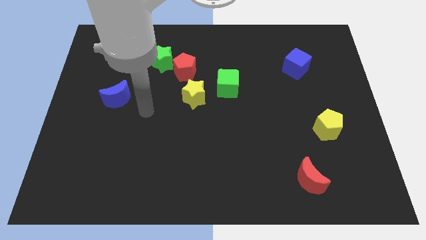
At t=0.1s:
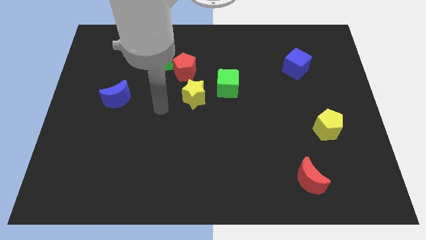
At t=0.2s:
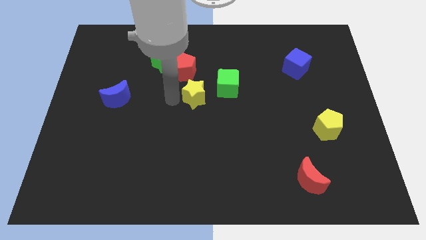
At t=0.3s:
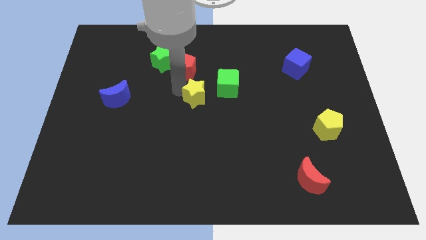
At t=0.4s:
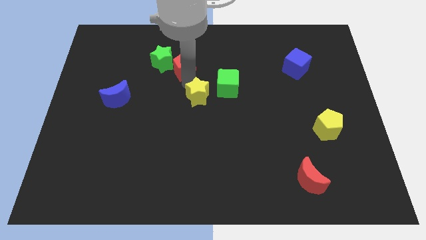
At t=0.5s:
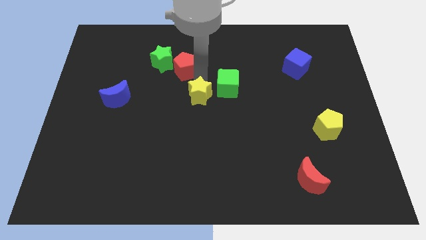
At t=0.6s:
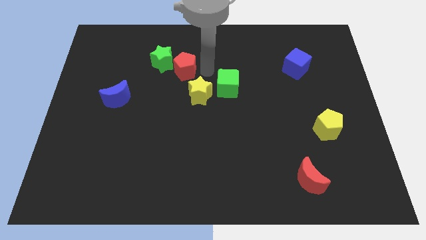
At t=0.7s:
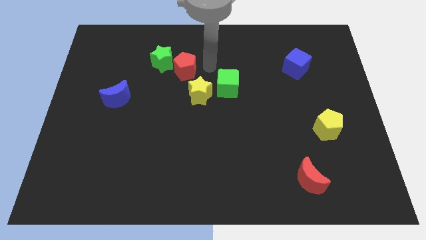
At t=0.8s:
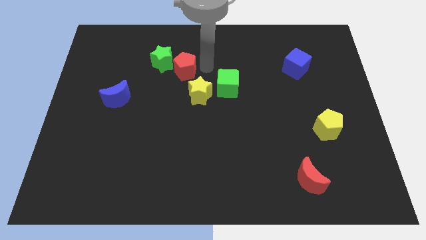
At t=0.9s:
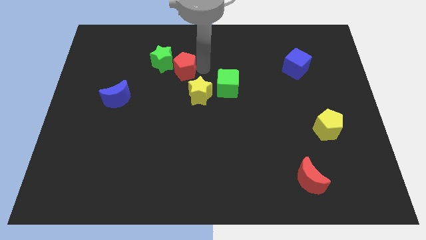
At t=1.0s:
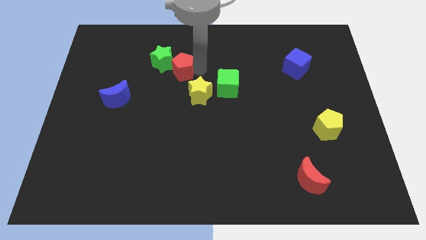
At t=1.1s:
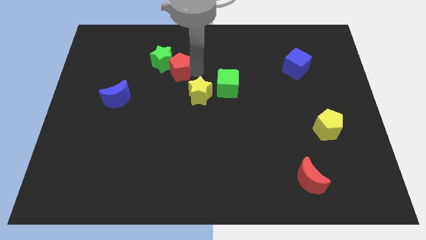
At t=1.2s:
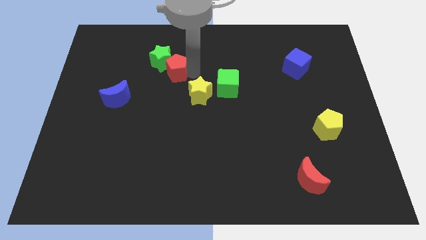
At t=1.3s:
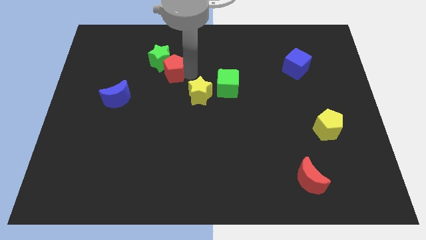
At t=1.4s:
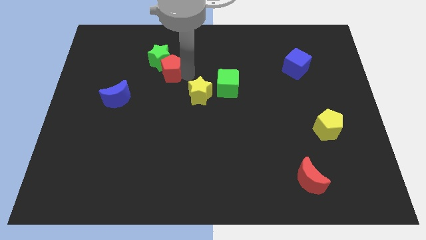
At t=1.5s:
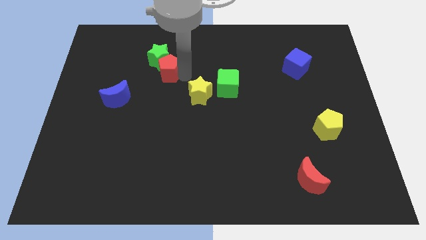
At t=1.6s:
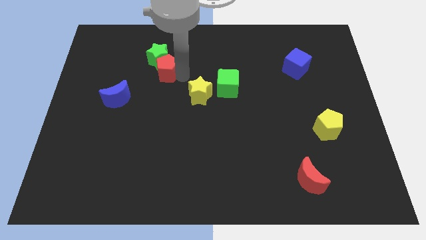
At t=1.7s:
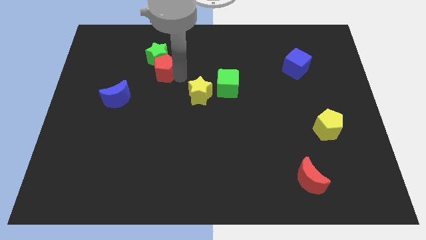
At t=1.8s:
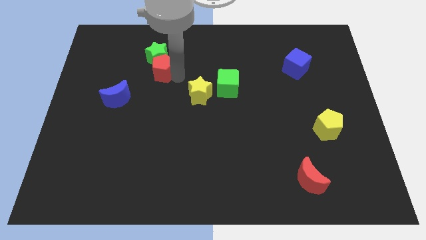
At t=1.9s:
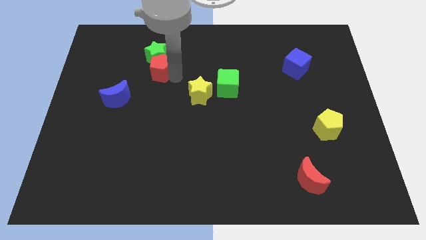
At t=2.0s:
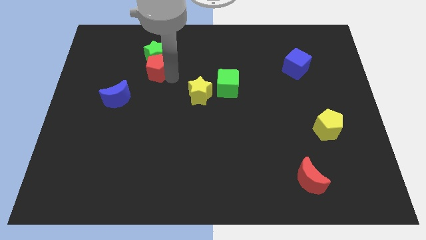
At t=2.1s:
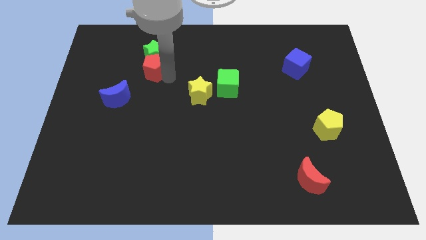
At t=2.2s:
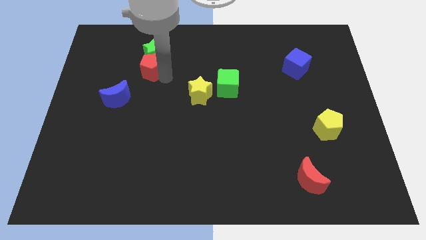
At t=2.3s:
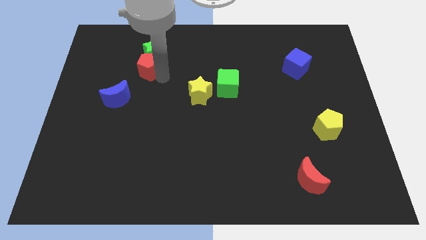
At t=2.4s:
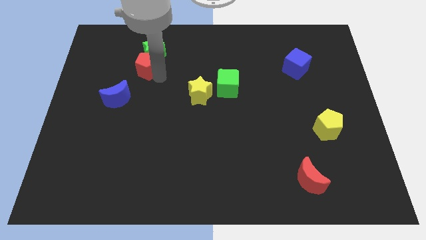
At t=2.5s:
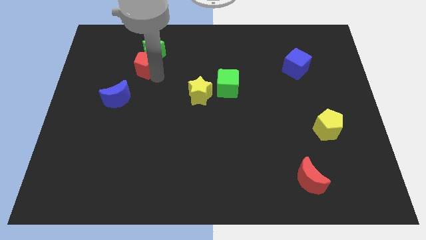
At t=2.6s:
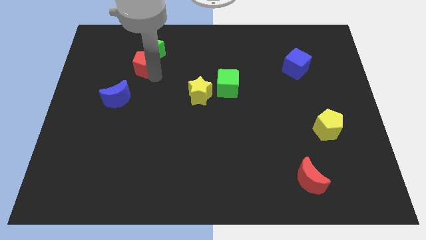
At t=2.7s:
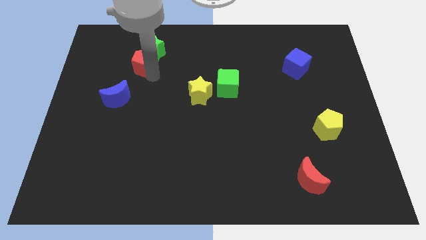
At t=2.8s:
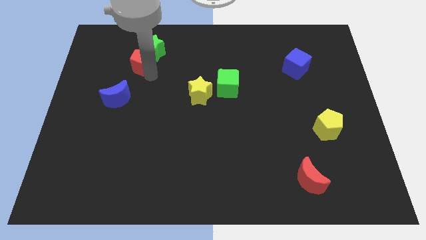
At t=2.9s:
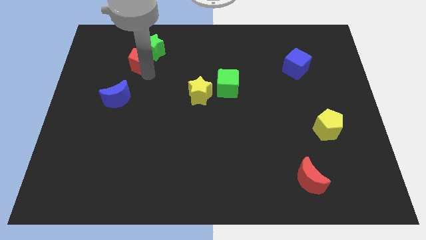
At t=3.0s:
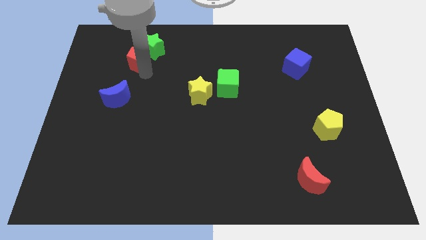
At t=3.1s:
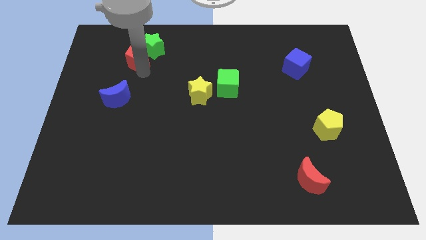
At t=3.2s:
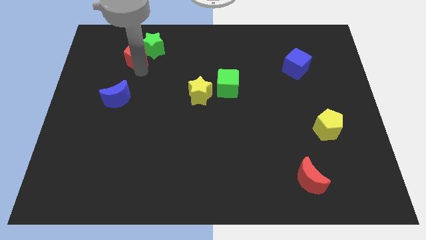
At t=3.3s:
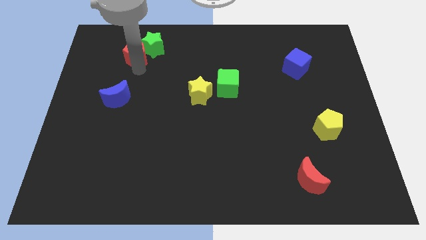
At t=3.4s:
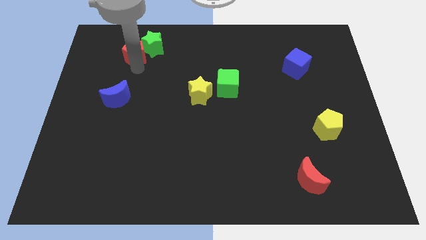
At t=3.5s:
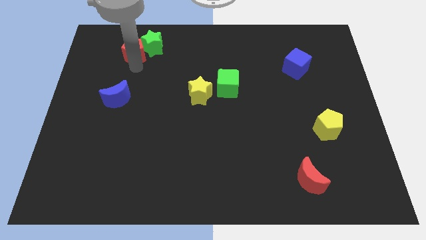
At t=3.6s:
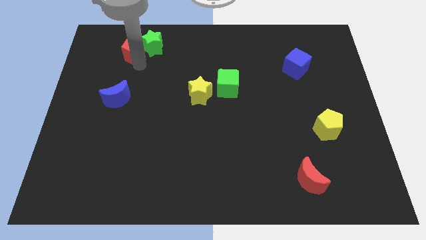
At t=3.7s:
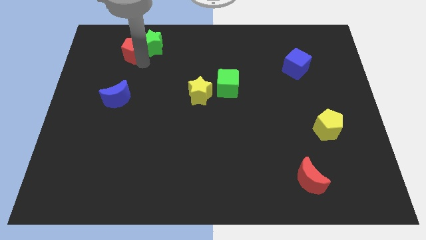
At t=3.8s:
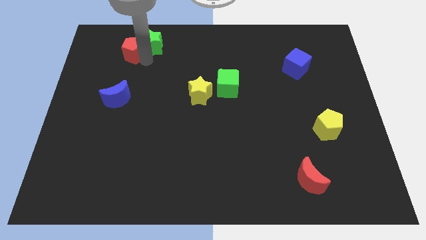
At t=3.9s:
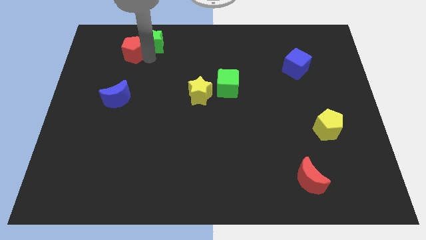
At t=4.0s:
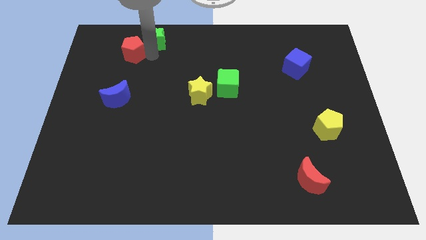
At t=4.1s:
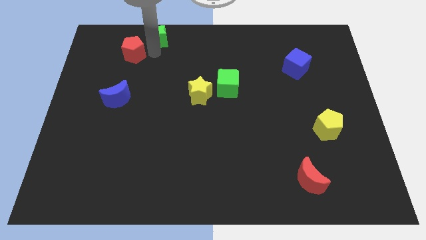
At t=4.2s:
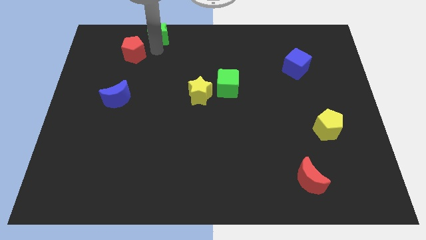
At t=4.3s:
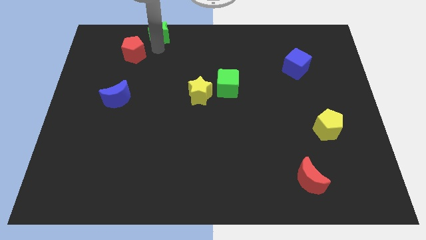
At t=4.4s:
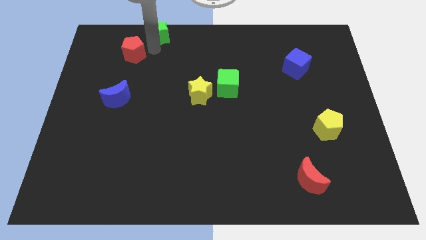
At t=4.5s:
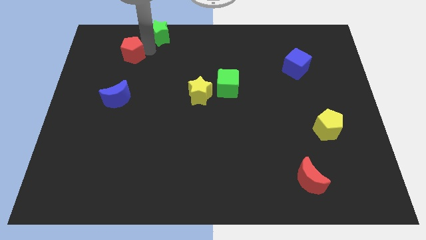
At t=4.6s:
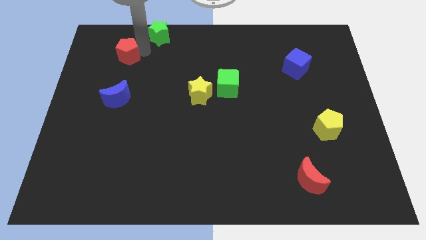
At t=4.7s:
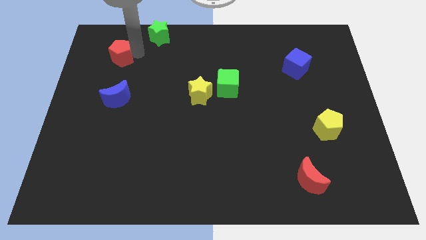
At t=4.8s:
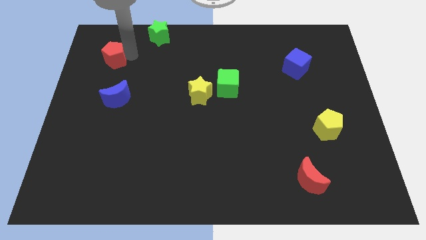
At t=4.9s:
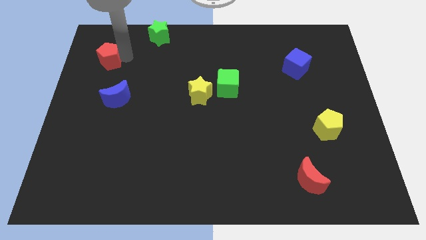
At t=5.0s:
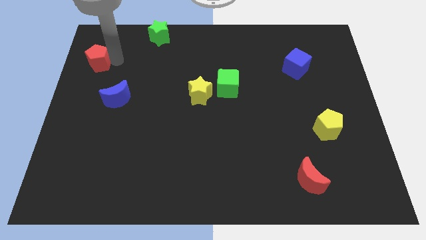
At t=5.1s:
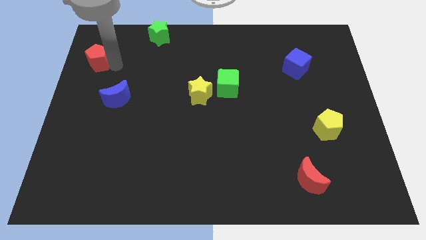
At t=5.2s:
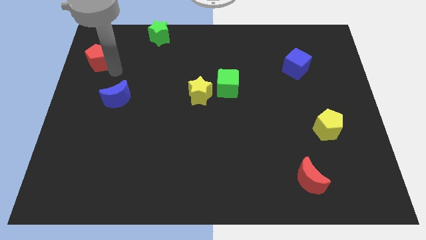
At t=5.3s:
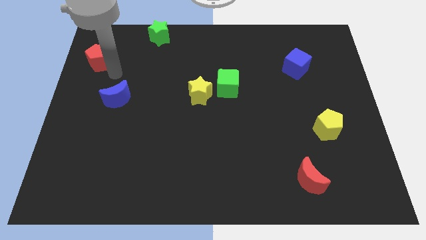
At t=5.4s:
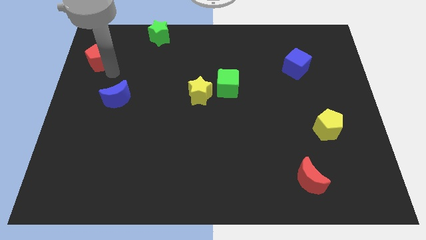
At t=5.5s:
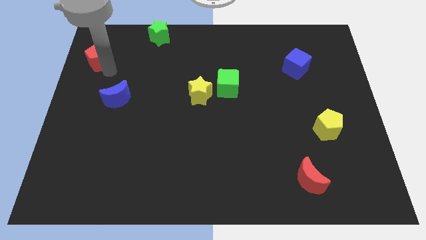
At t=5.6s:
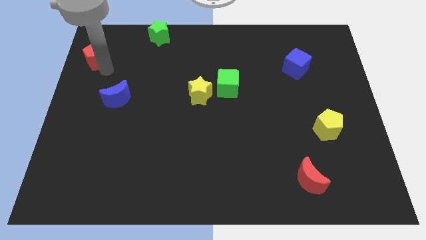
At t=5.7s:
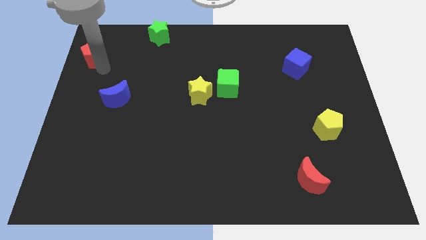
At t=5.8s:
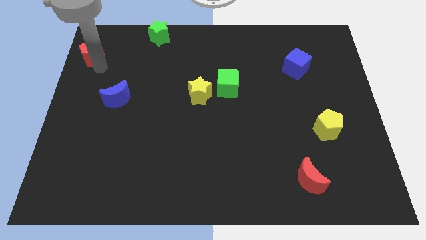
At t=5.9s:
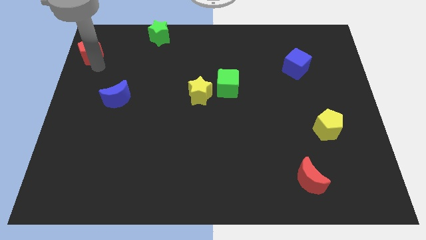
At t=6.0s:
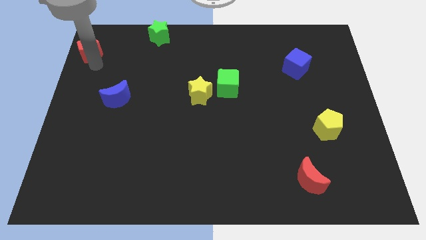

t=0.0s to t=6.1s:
move the red pentagon to the top left

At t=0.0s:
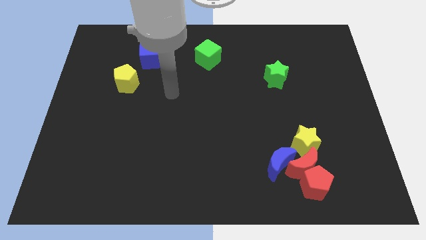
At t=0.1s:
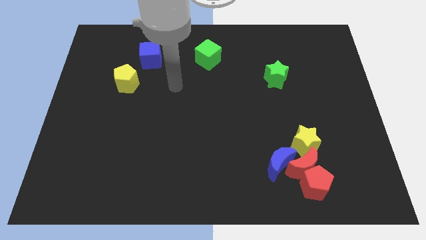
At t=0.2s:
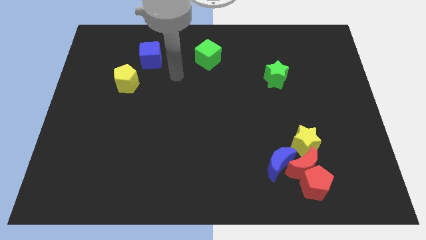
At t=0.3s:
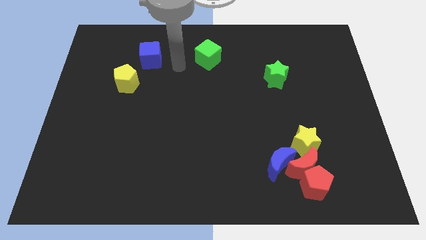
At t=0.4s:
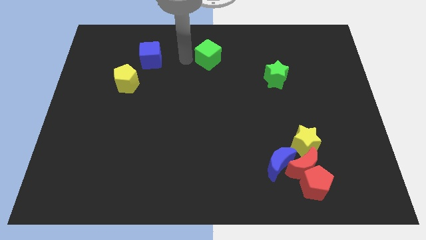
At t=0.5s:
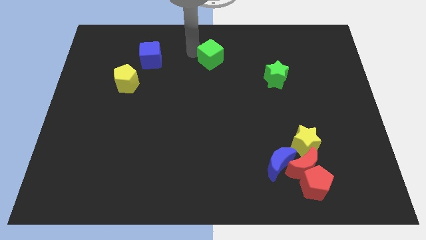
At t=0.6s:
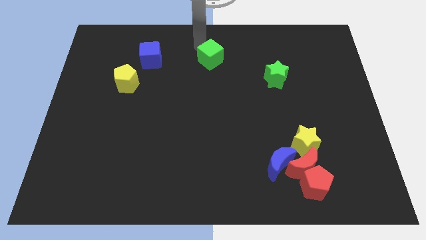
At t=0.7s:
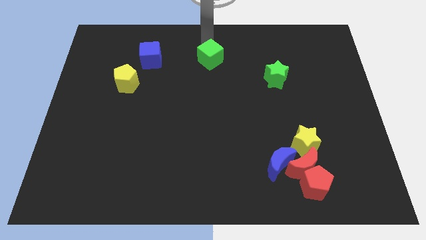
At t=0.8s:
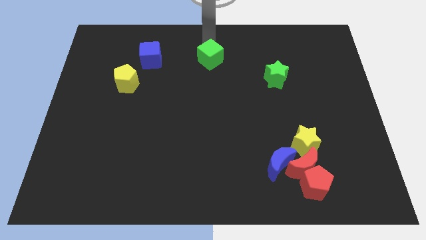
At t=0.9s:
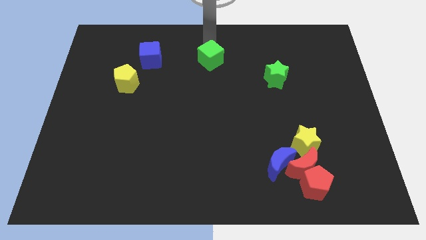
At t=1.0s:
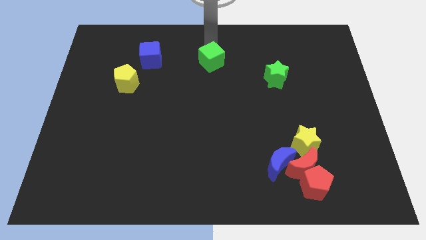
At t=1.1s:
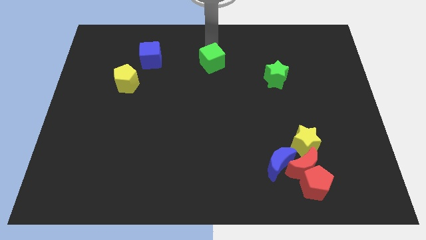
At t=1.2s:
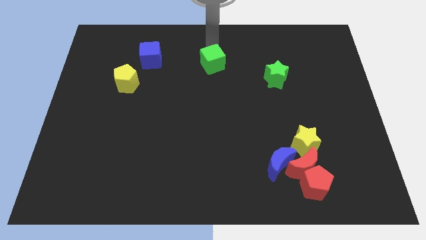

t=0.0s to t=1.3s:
move the green cube to the center
